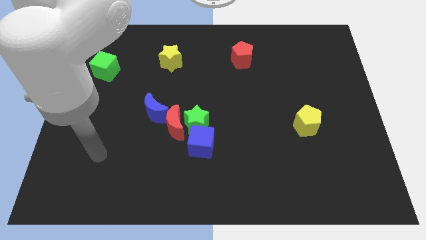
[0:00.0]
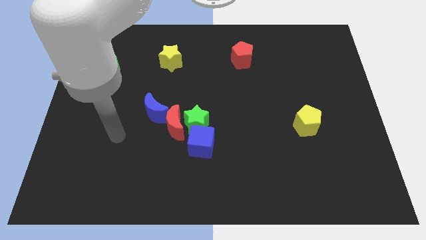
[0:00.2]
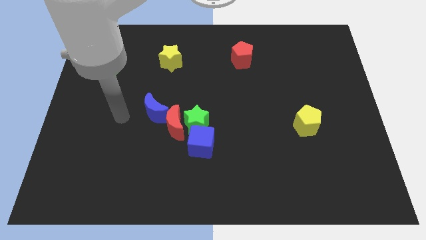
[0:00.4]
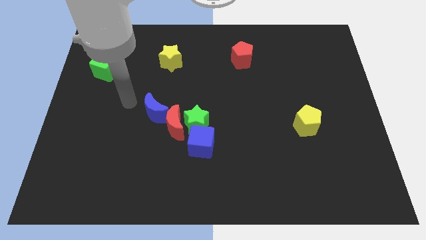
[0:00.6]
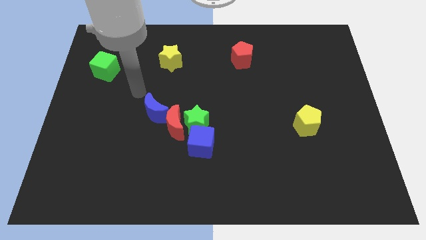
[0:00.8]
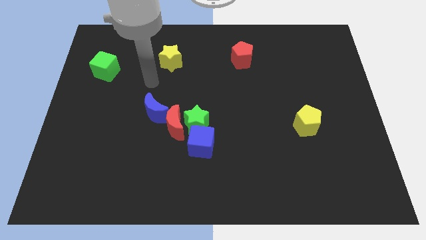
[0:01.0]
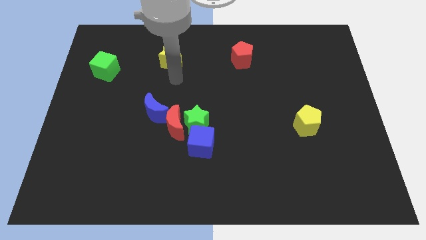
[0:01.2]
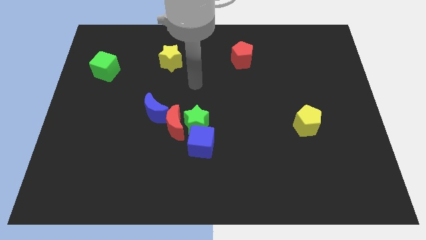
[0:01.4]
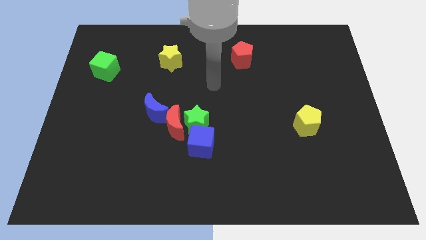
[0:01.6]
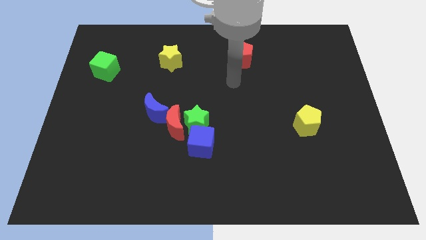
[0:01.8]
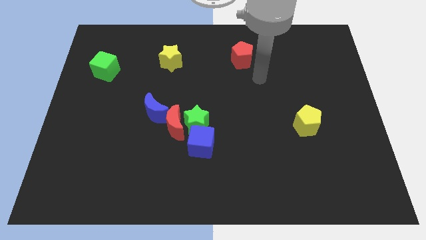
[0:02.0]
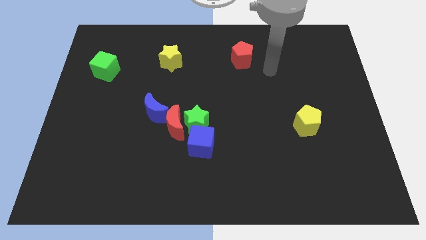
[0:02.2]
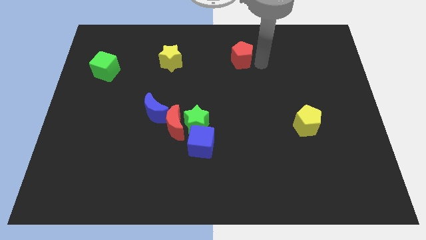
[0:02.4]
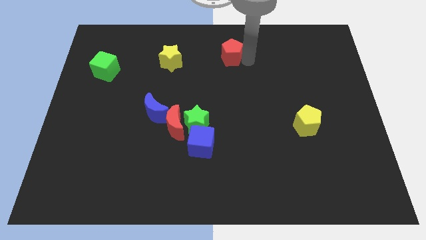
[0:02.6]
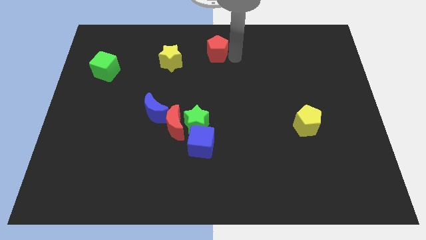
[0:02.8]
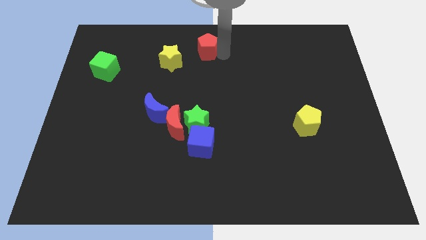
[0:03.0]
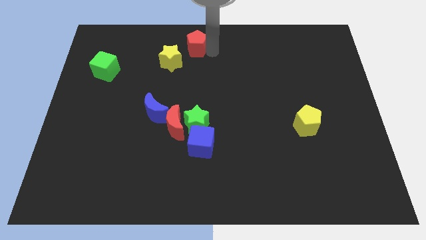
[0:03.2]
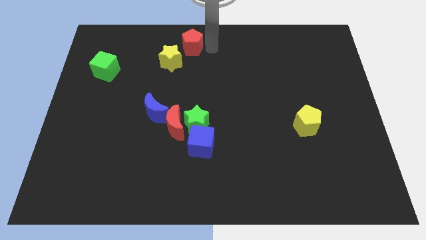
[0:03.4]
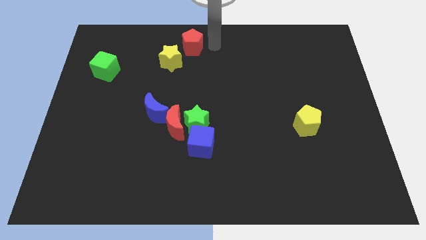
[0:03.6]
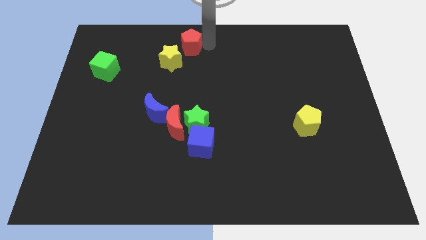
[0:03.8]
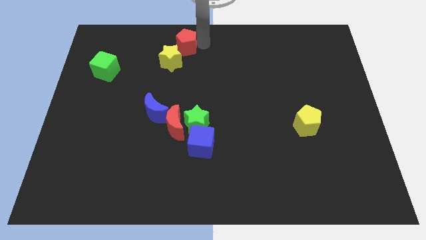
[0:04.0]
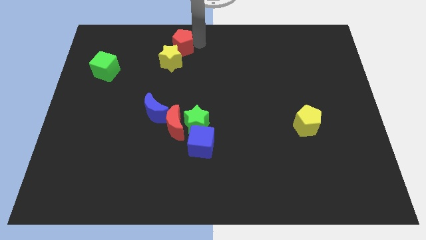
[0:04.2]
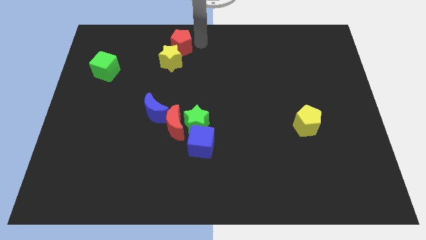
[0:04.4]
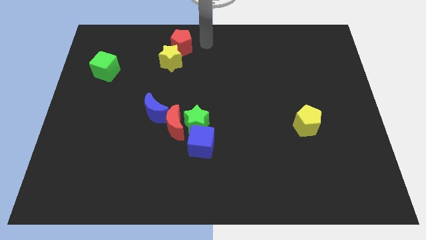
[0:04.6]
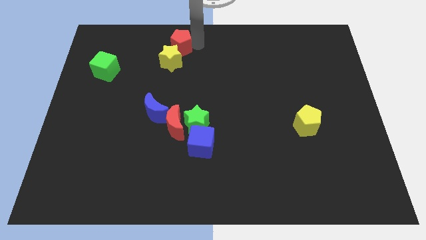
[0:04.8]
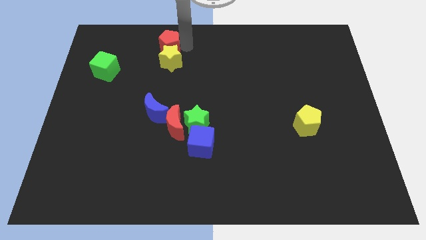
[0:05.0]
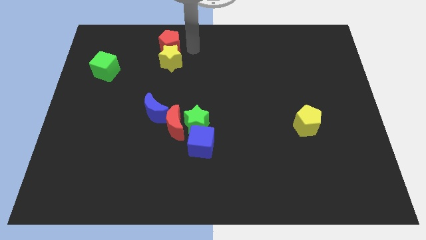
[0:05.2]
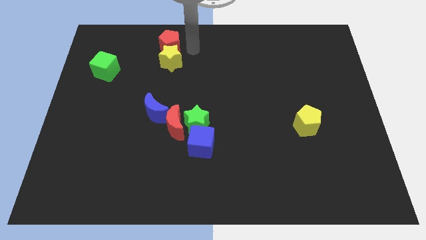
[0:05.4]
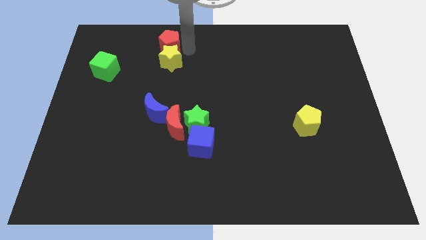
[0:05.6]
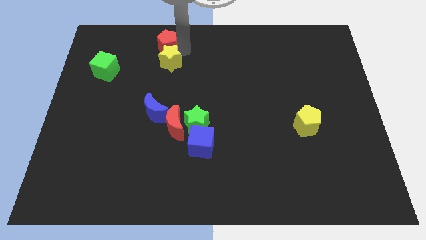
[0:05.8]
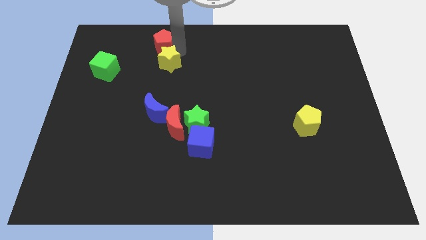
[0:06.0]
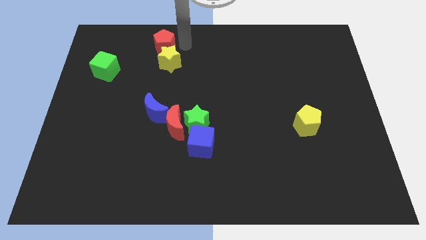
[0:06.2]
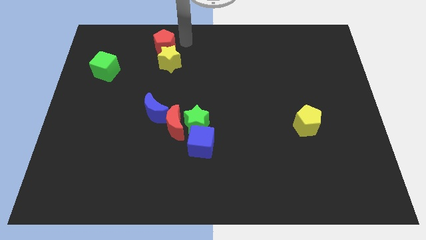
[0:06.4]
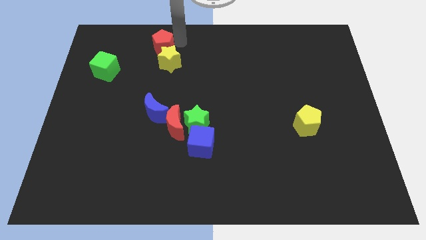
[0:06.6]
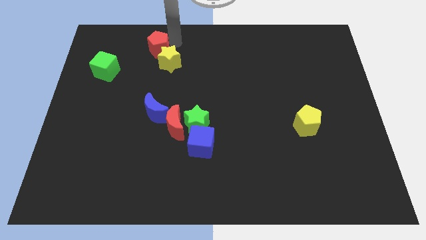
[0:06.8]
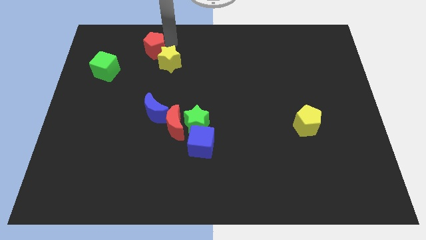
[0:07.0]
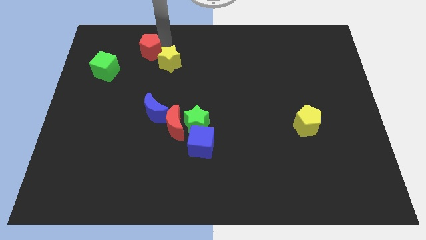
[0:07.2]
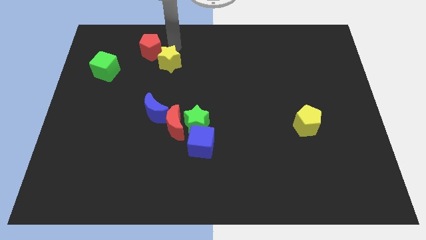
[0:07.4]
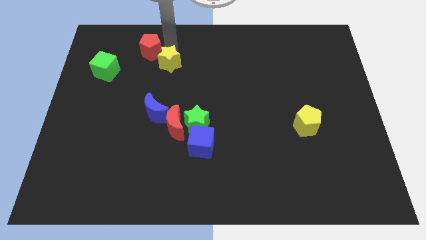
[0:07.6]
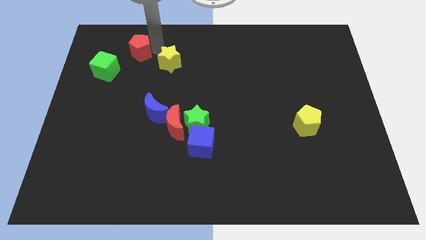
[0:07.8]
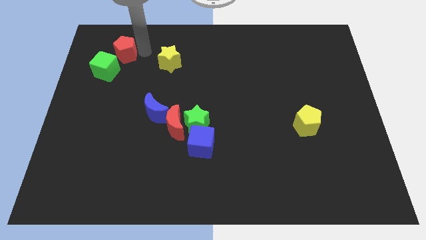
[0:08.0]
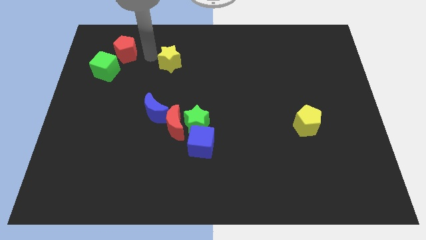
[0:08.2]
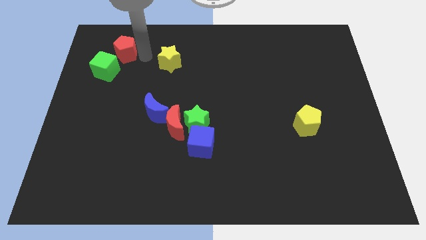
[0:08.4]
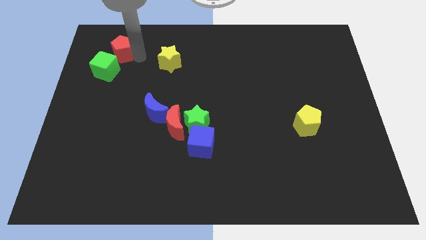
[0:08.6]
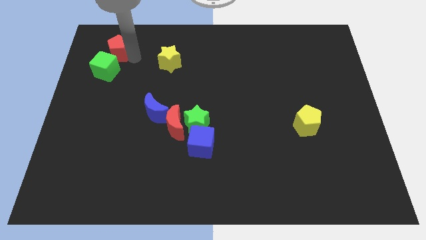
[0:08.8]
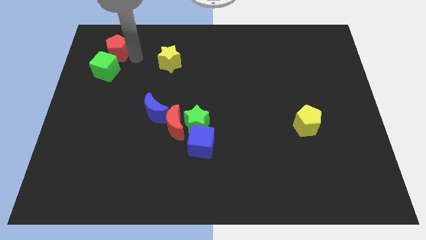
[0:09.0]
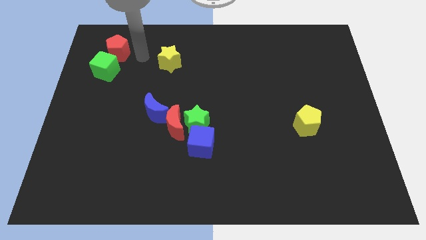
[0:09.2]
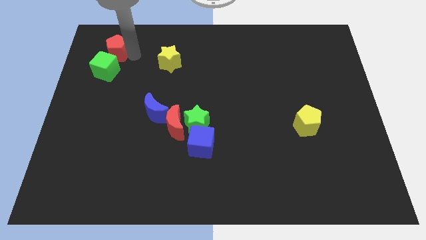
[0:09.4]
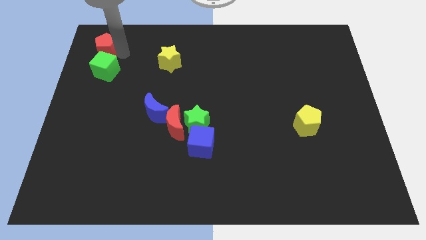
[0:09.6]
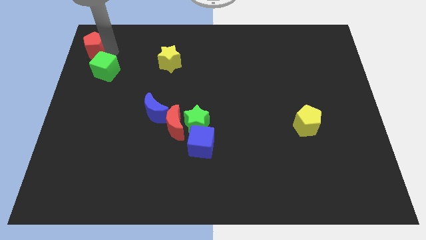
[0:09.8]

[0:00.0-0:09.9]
move the red pentagon to the top left corner

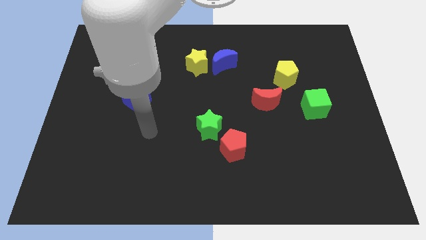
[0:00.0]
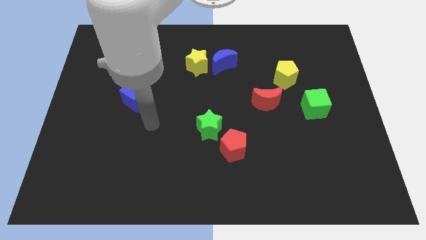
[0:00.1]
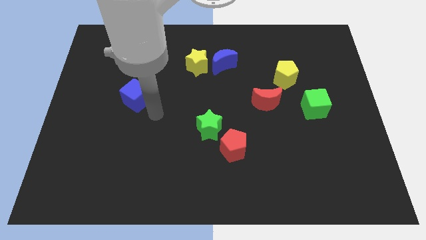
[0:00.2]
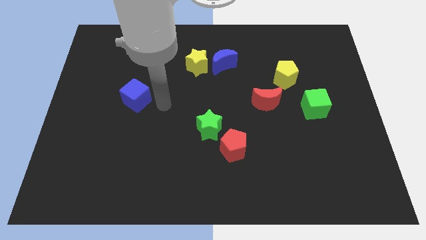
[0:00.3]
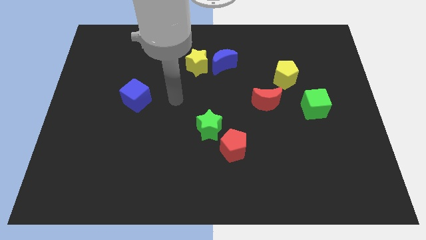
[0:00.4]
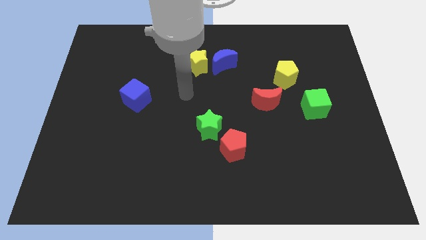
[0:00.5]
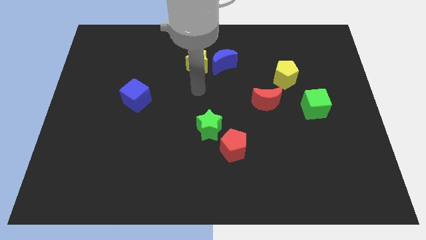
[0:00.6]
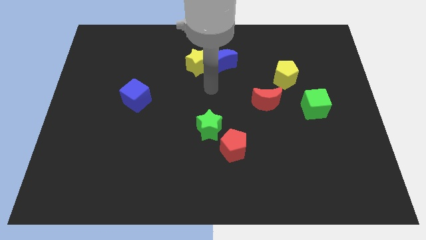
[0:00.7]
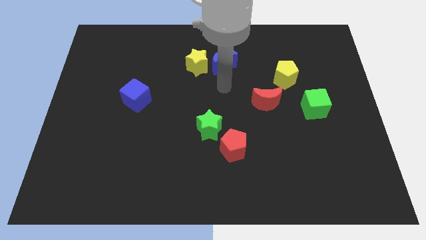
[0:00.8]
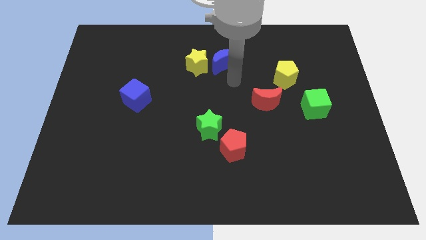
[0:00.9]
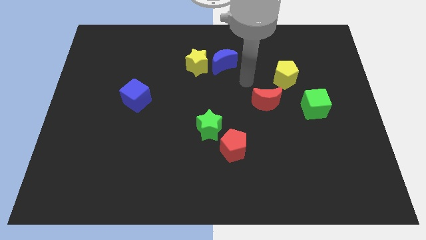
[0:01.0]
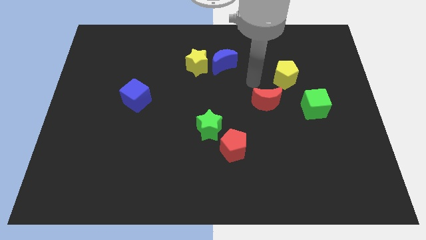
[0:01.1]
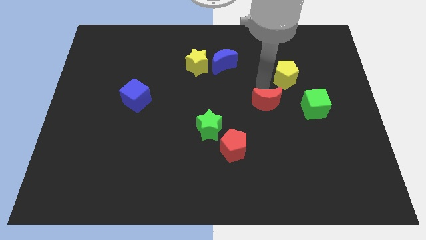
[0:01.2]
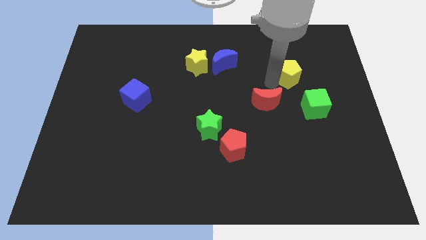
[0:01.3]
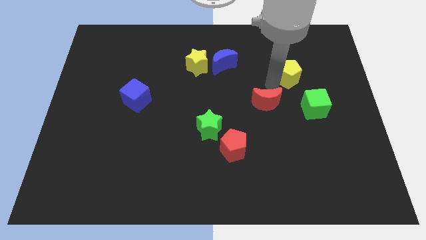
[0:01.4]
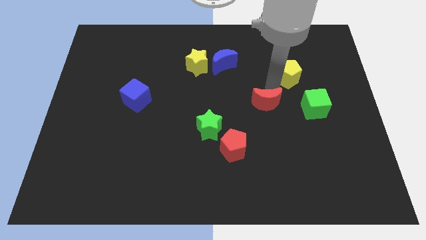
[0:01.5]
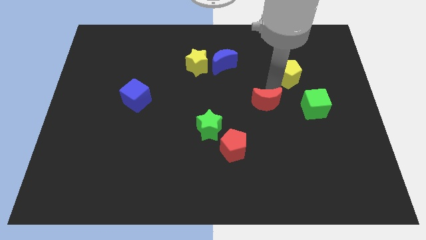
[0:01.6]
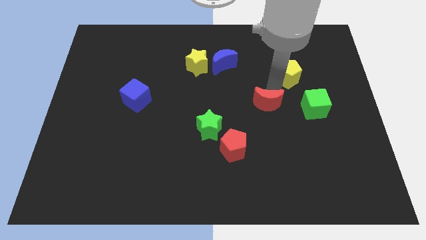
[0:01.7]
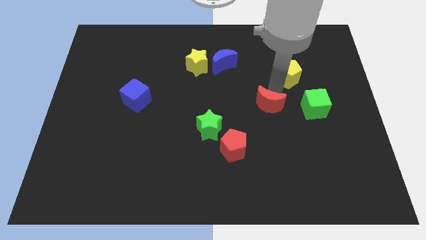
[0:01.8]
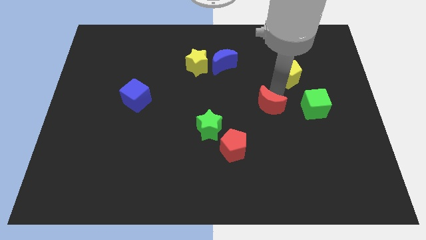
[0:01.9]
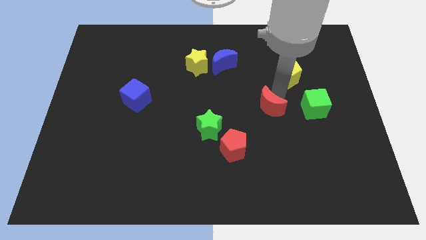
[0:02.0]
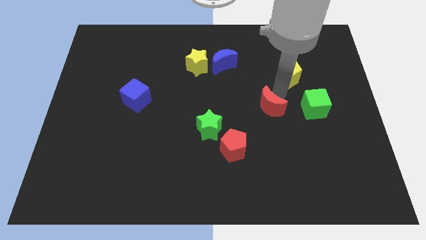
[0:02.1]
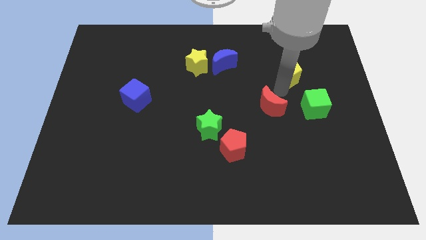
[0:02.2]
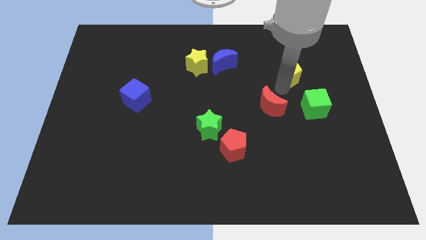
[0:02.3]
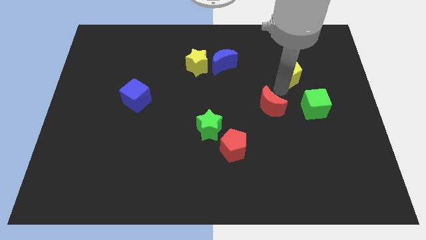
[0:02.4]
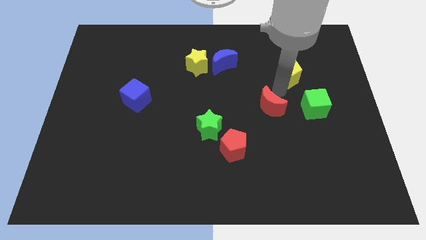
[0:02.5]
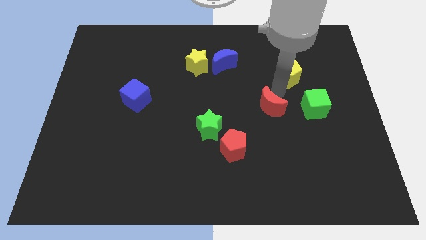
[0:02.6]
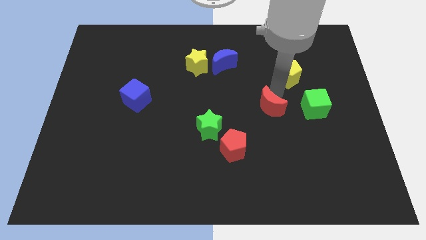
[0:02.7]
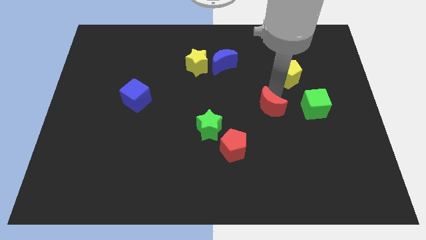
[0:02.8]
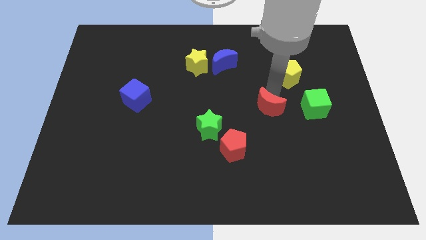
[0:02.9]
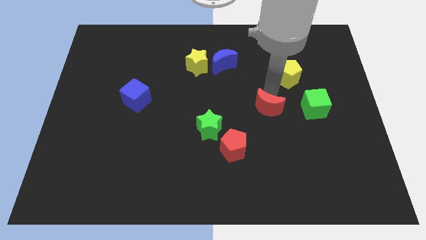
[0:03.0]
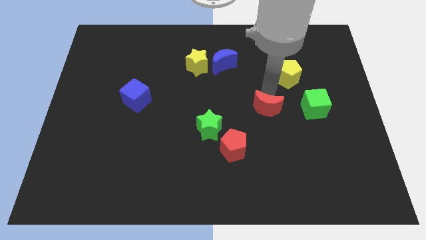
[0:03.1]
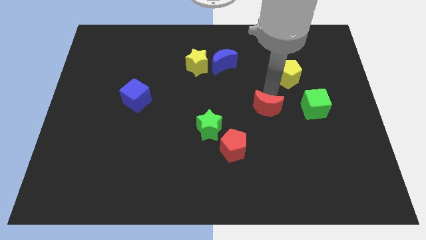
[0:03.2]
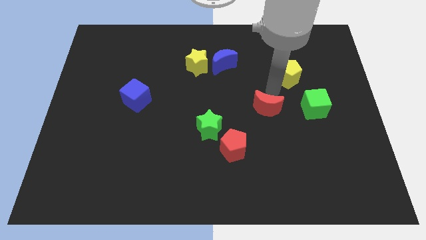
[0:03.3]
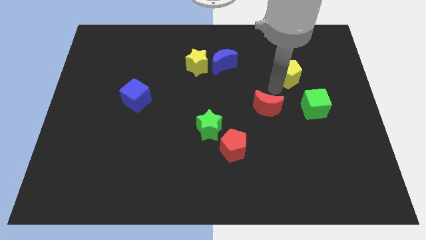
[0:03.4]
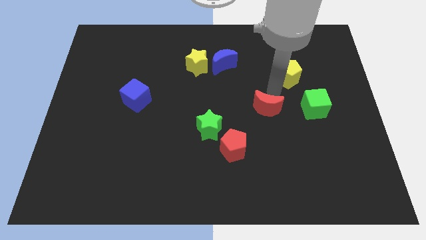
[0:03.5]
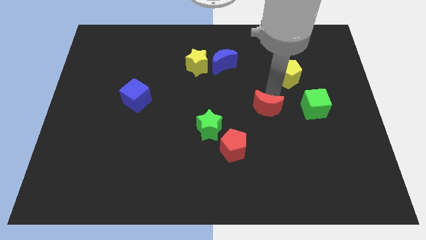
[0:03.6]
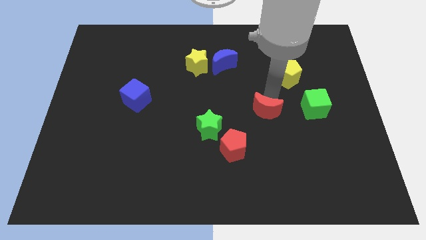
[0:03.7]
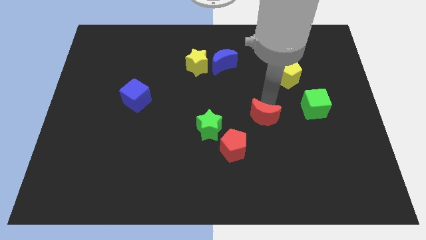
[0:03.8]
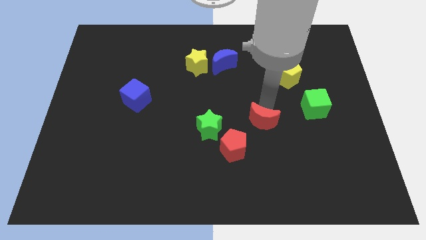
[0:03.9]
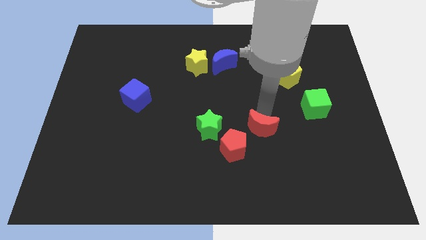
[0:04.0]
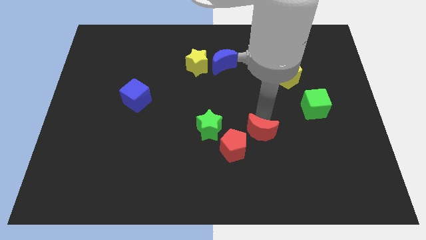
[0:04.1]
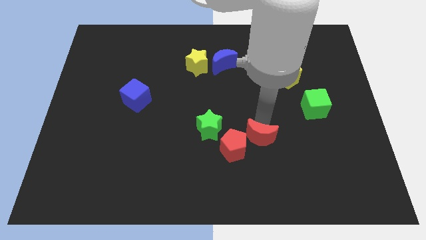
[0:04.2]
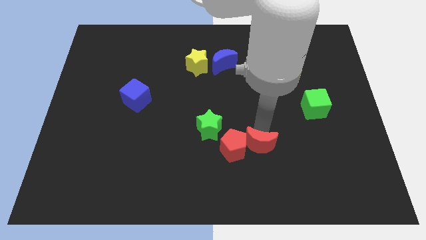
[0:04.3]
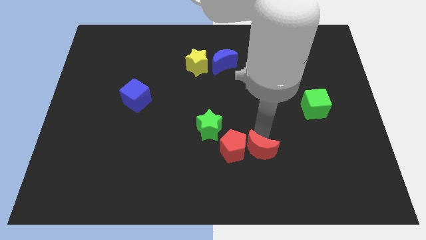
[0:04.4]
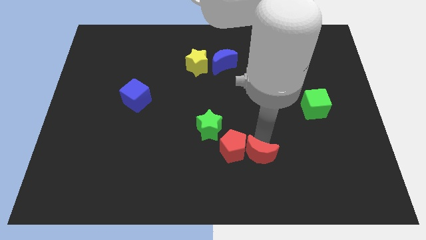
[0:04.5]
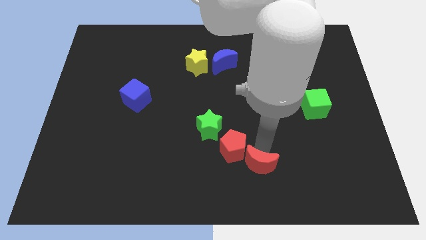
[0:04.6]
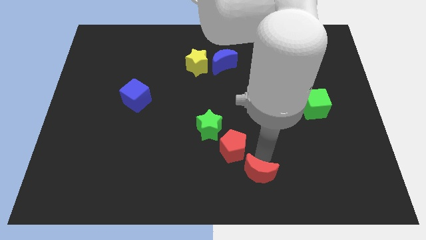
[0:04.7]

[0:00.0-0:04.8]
push the red moon to the bottom
